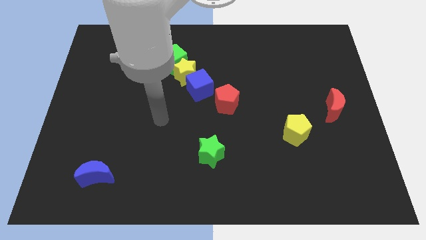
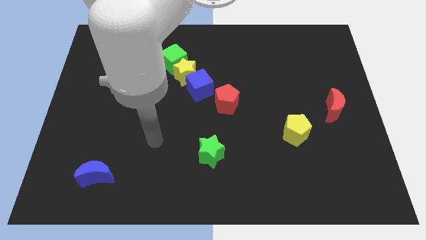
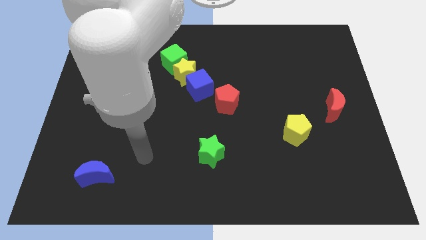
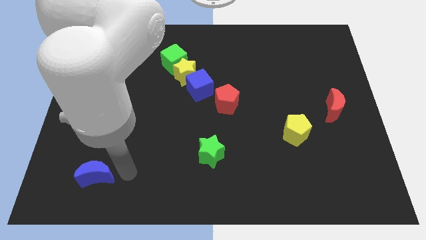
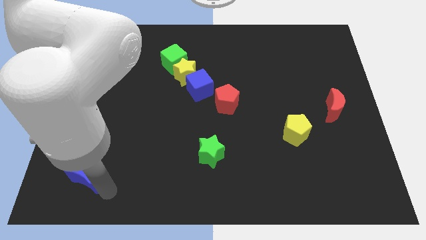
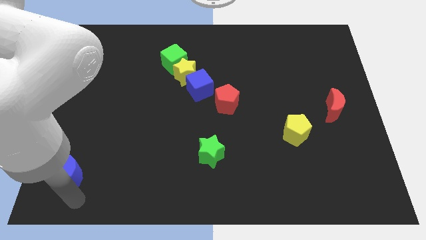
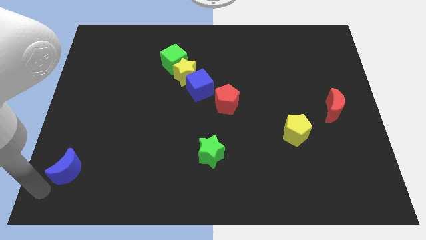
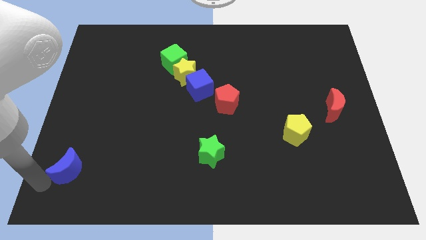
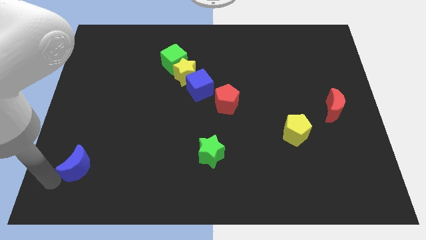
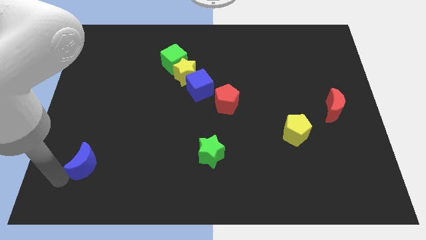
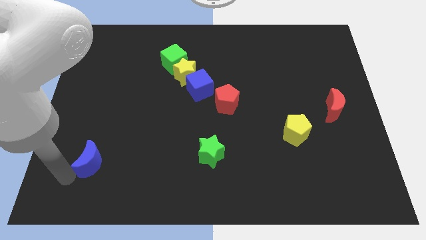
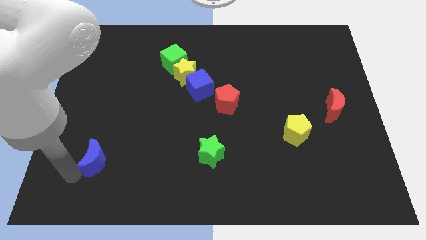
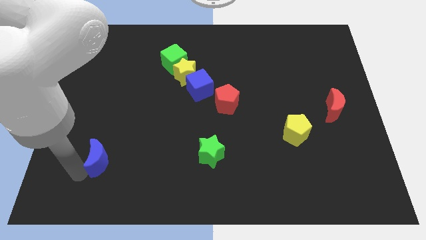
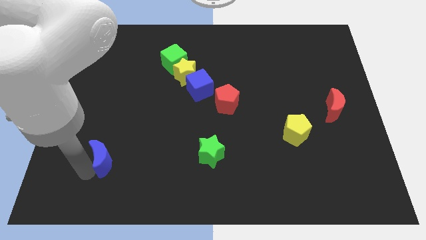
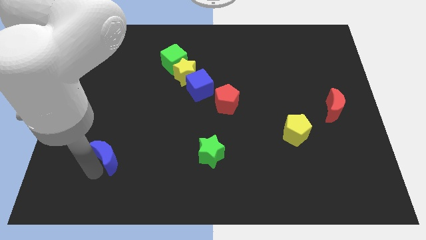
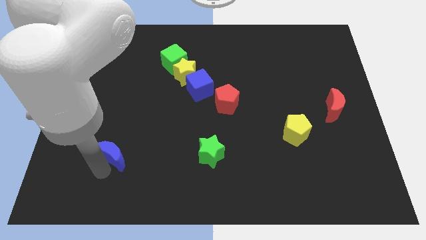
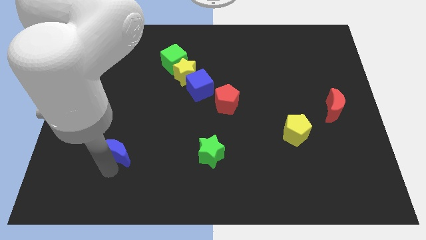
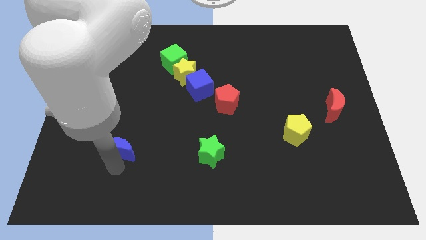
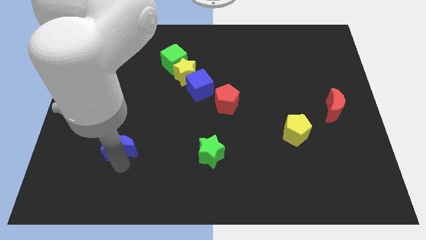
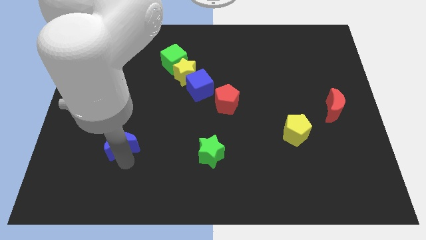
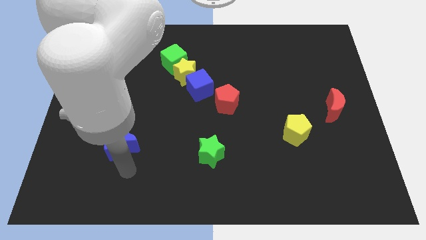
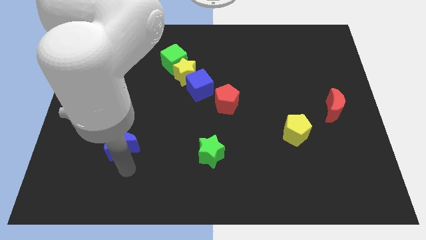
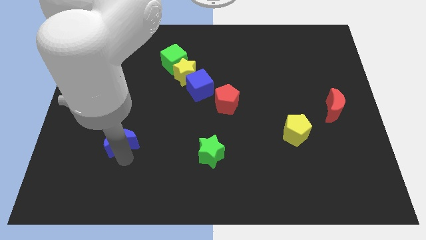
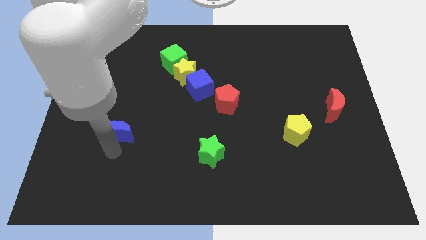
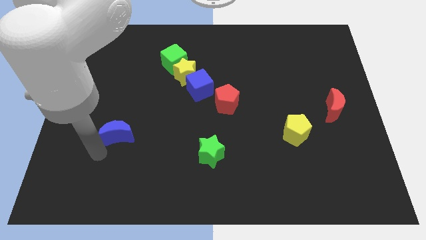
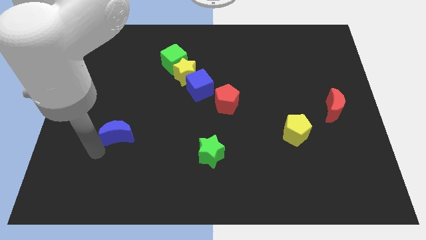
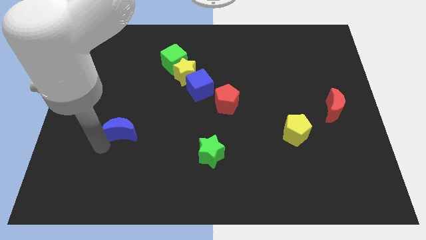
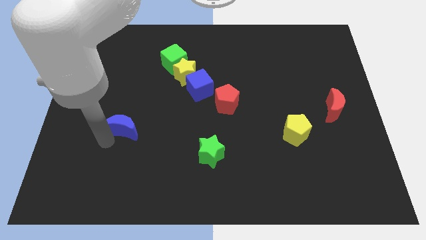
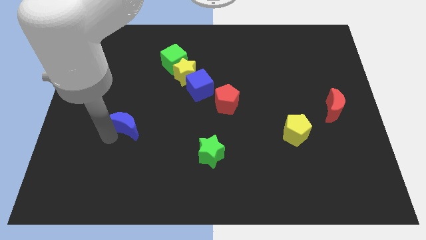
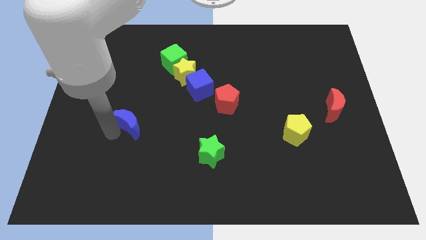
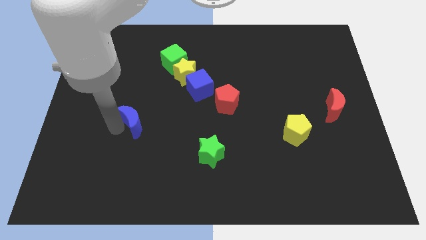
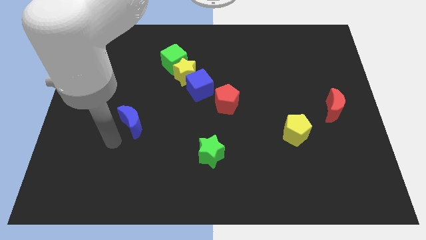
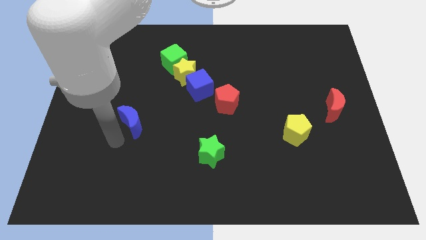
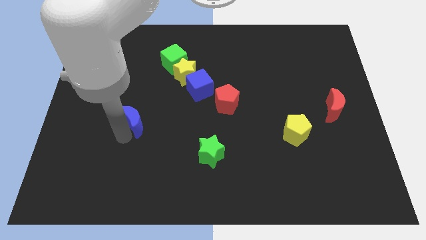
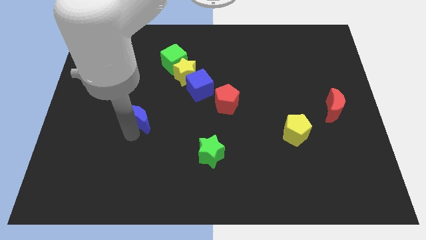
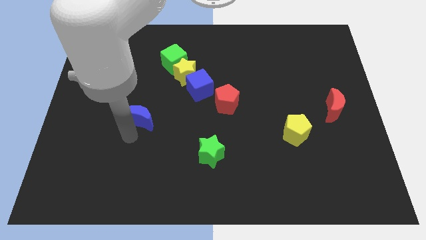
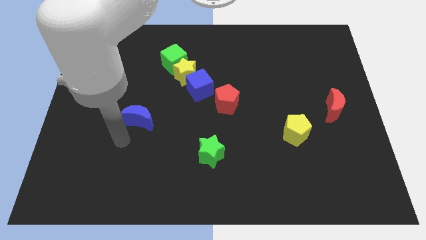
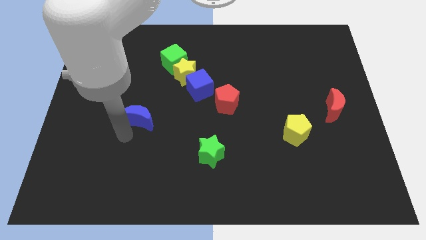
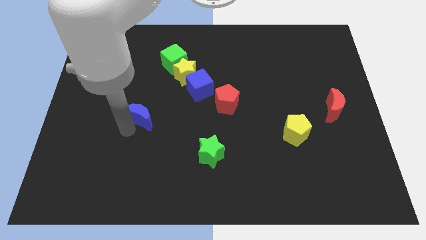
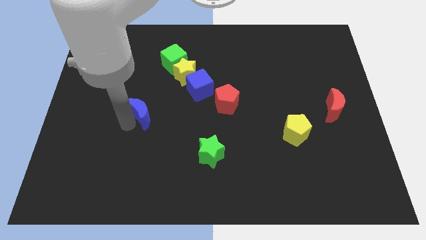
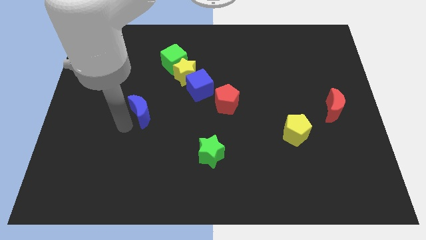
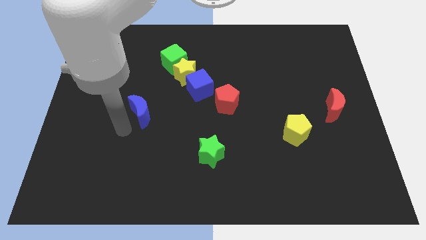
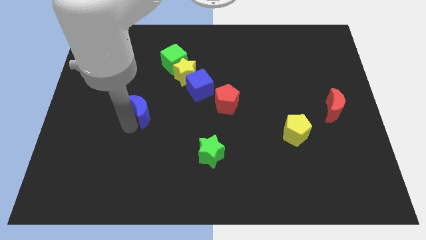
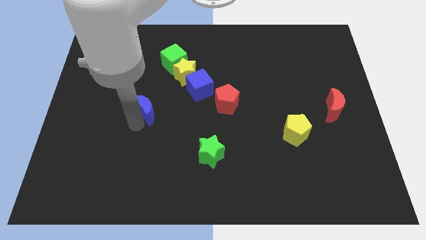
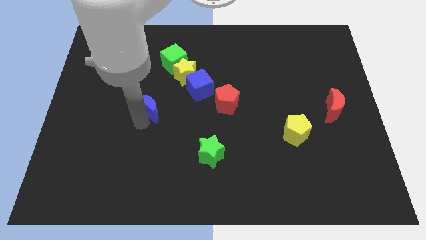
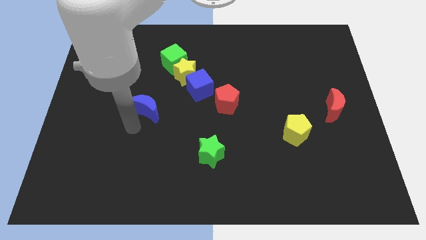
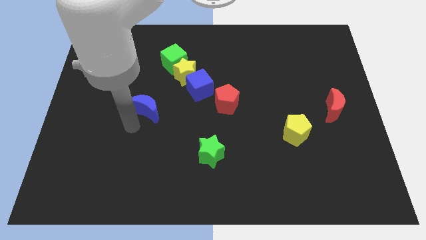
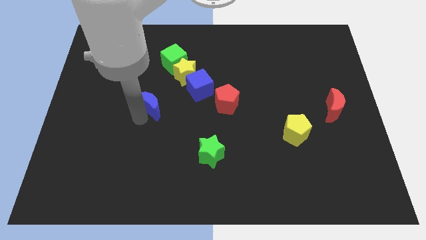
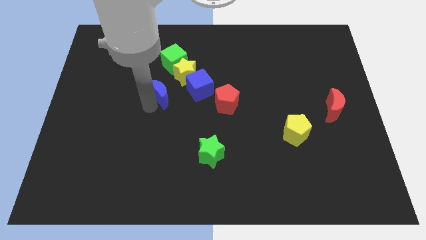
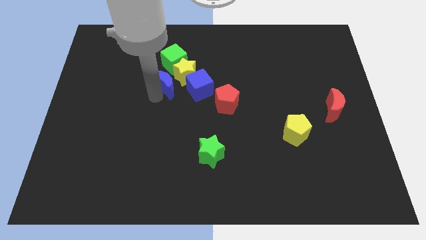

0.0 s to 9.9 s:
move the blue moon to the yellow star

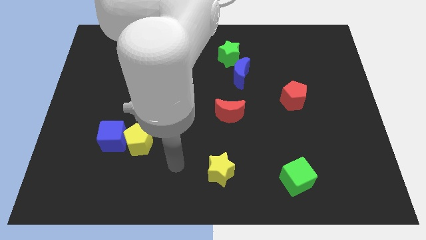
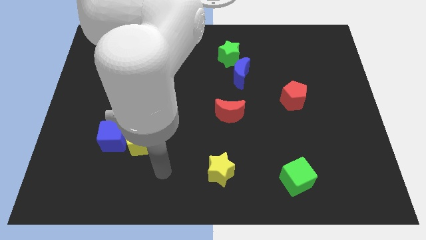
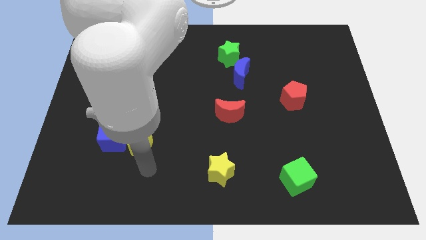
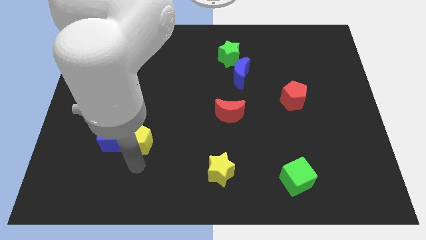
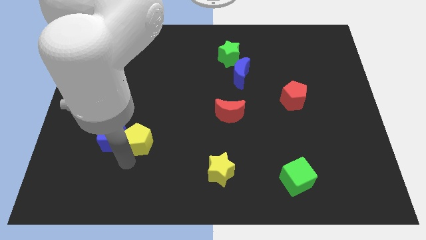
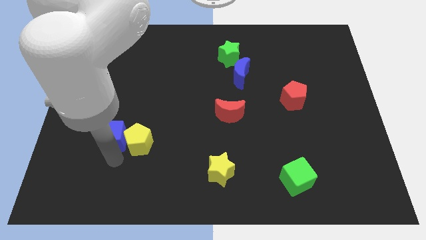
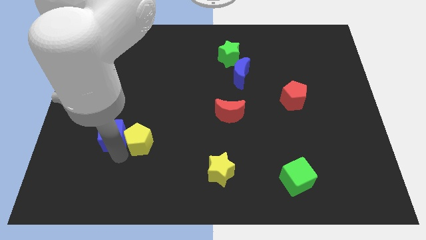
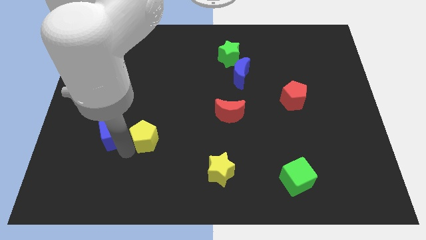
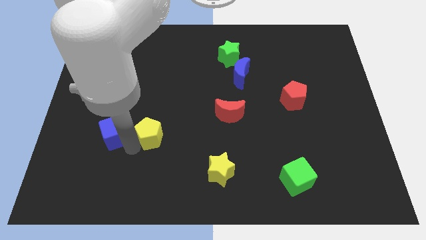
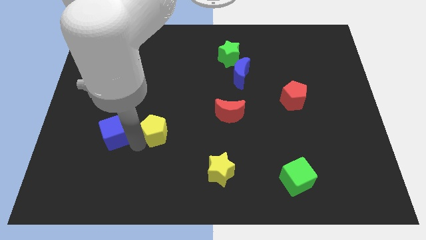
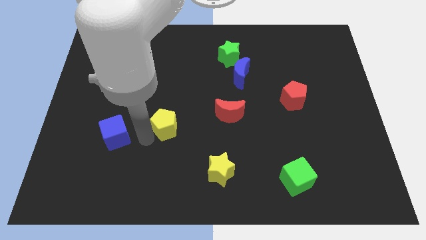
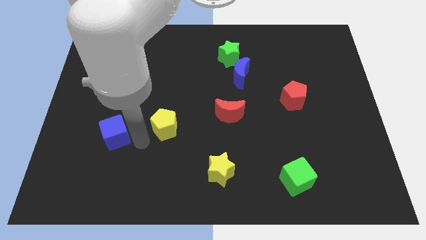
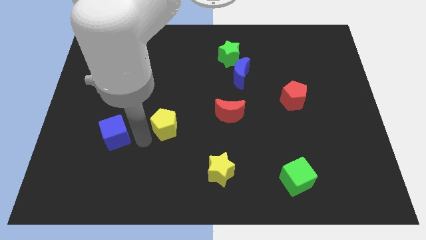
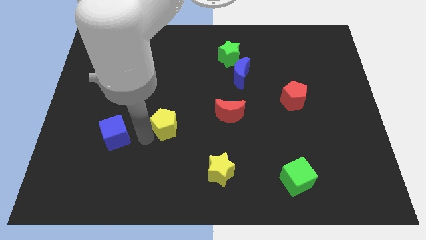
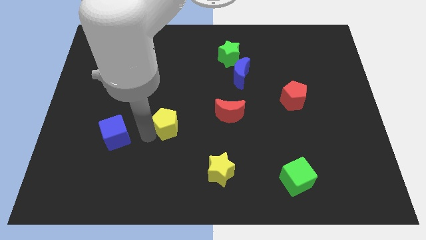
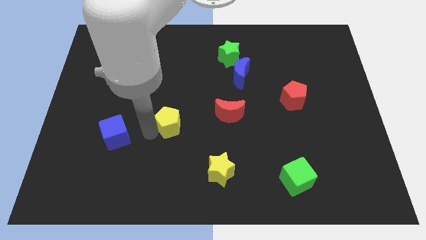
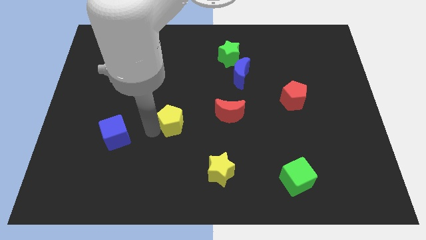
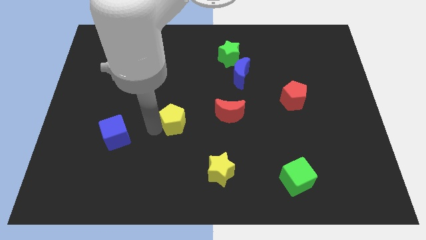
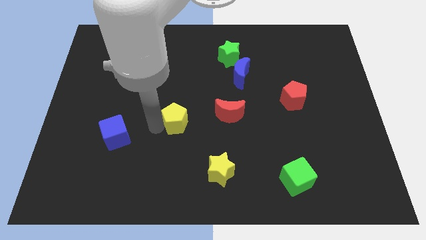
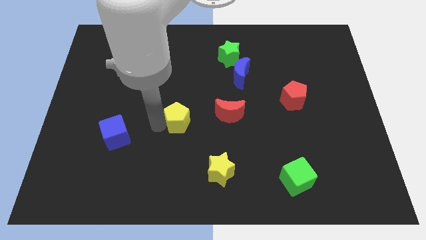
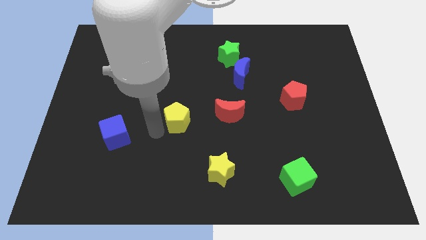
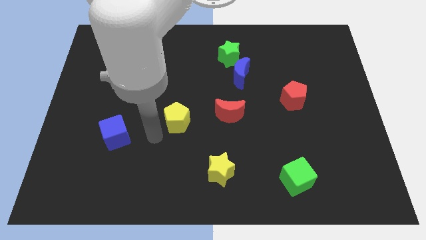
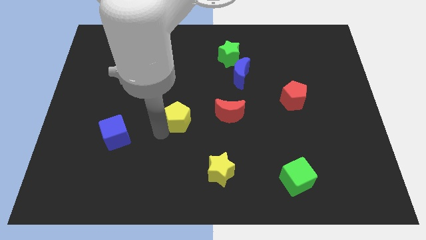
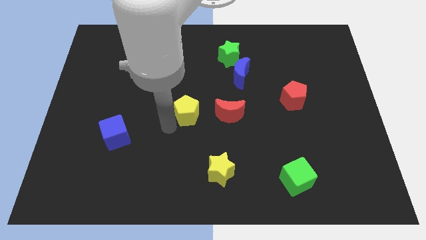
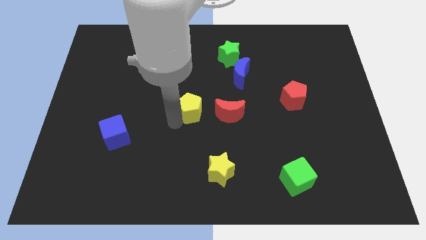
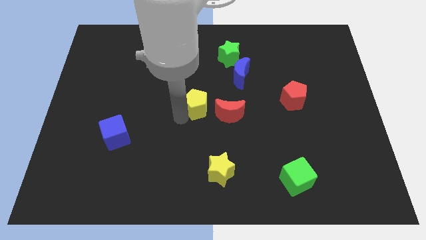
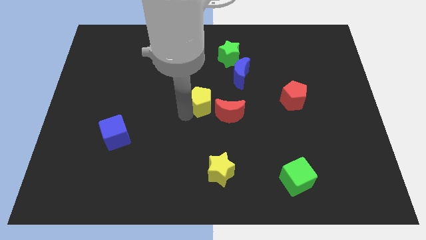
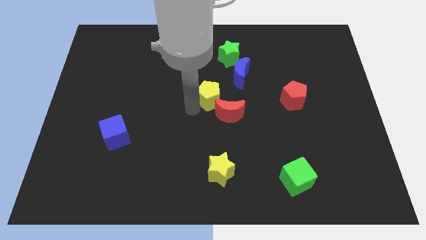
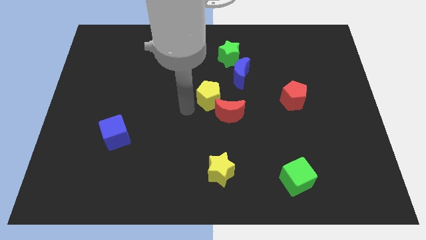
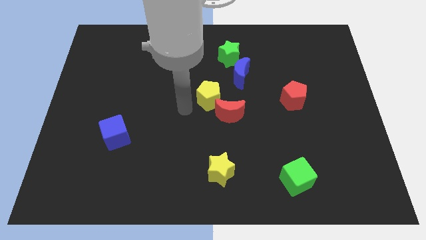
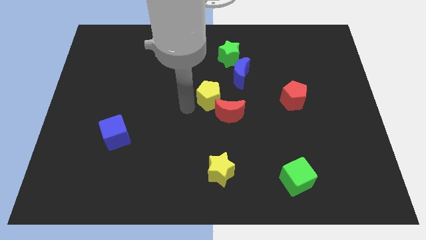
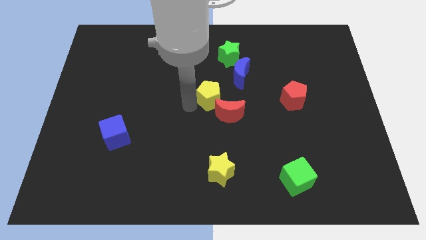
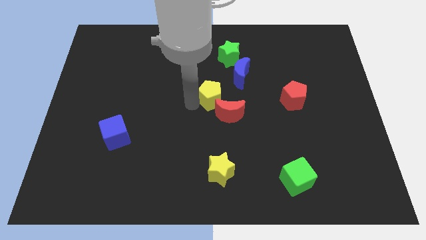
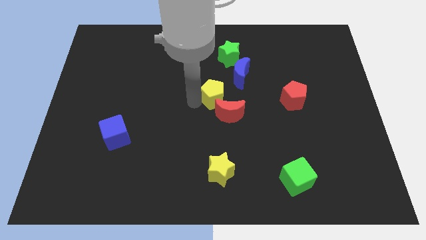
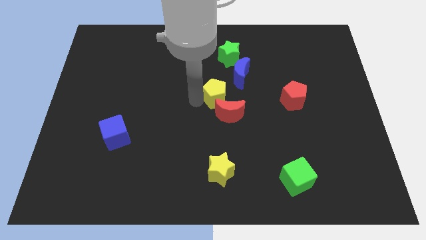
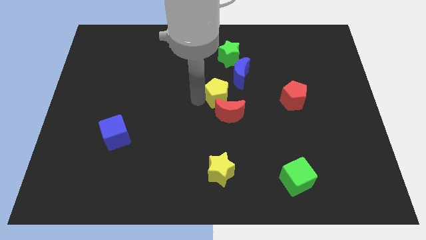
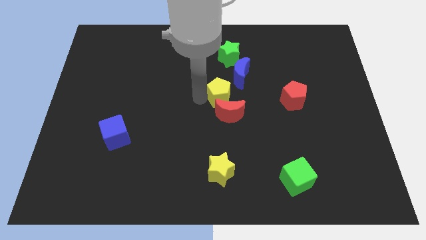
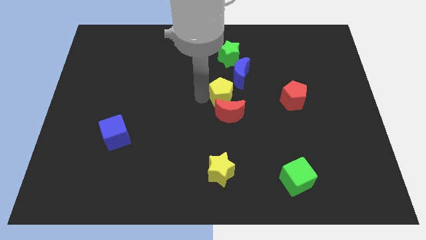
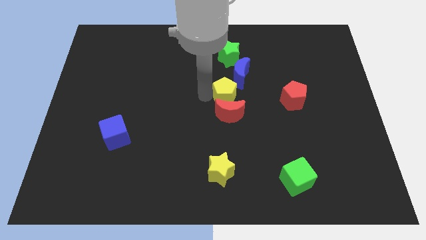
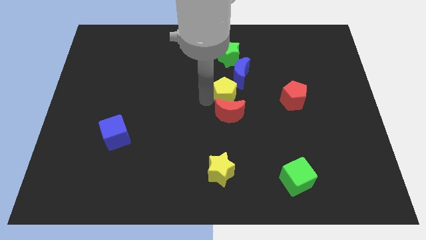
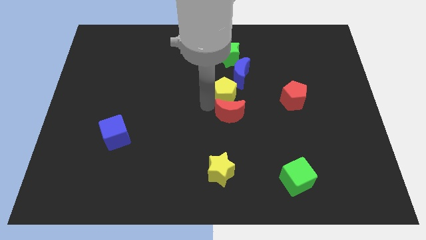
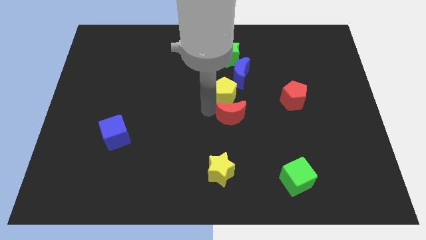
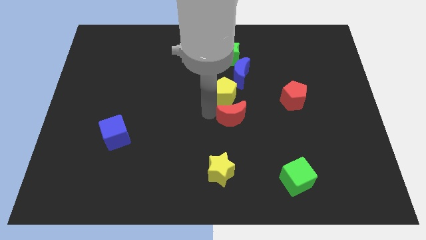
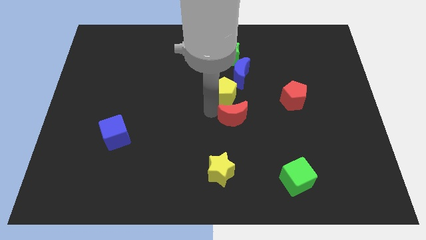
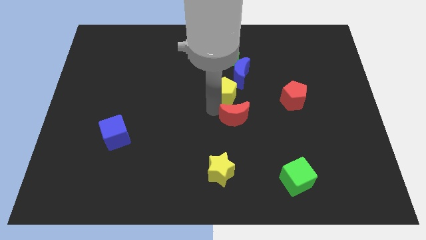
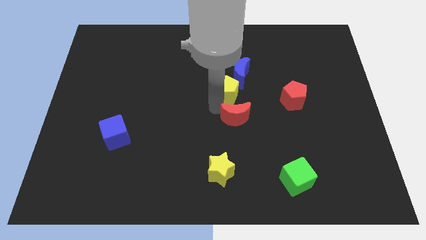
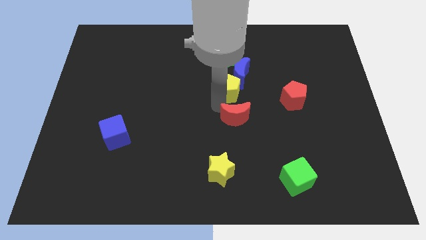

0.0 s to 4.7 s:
push the yellow pentagon towards the blue moon
